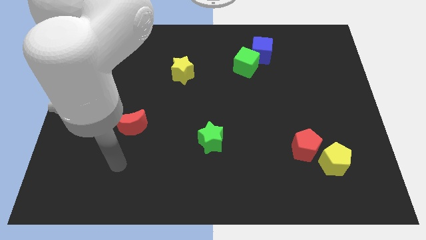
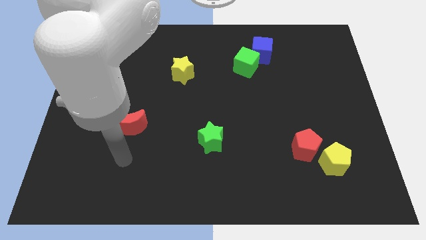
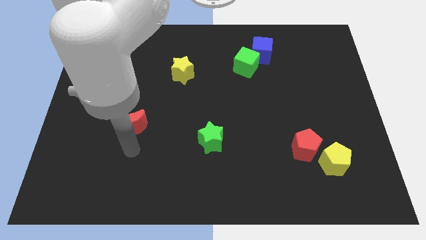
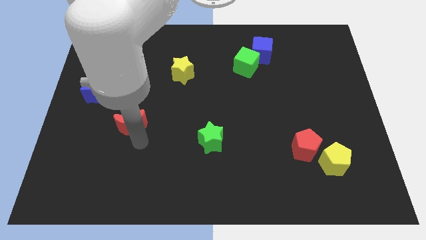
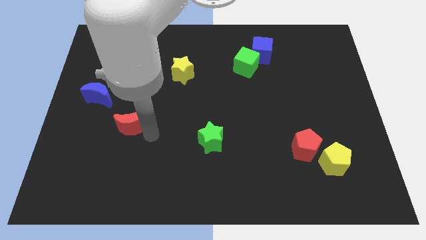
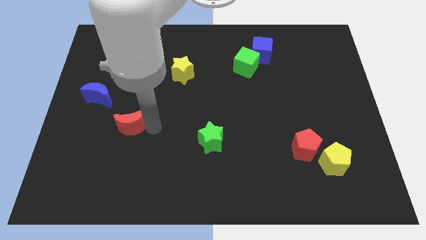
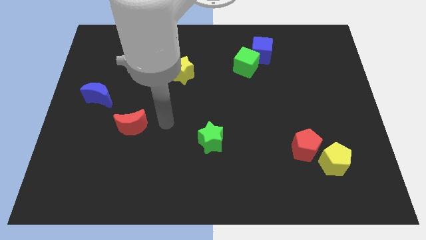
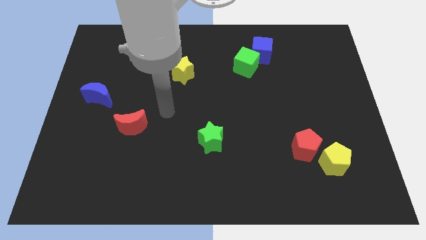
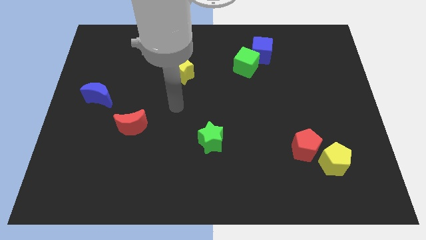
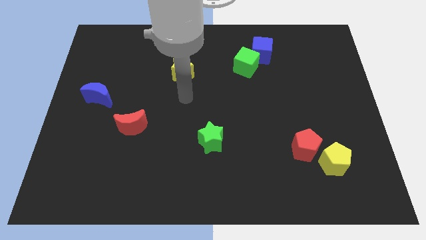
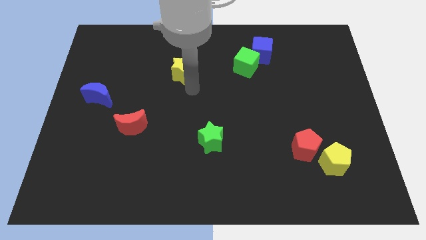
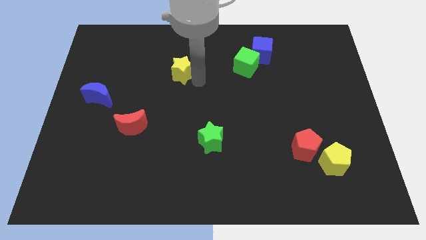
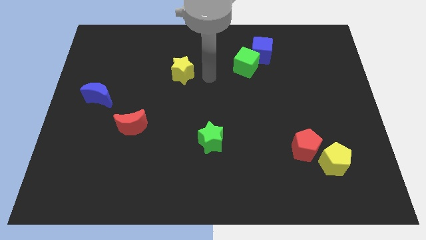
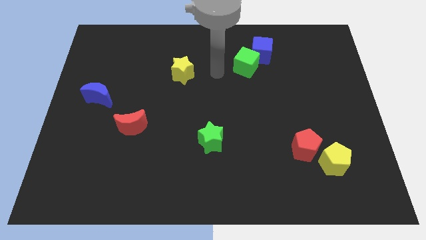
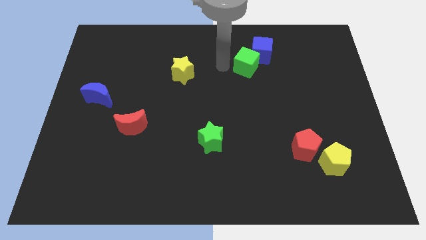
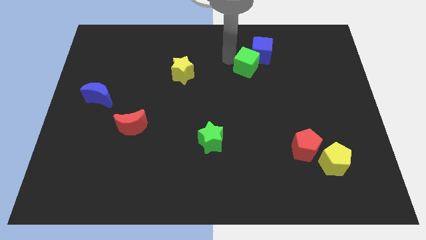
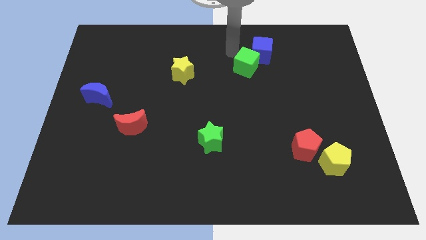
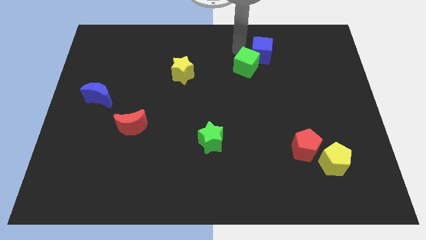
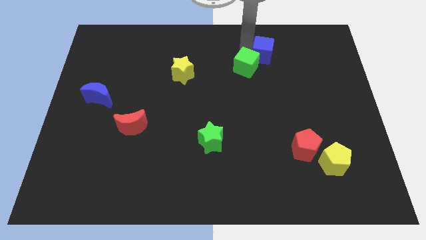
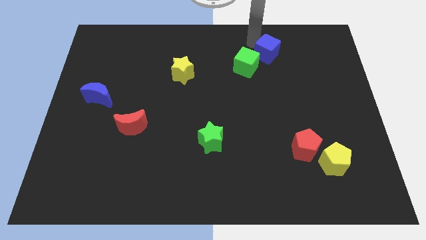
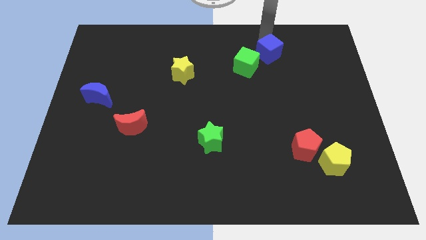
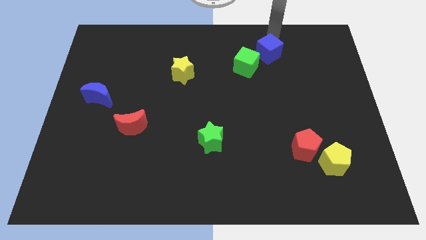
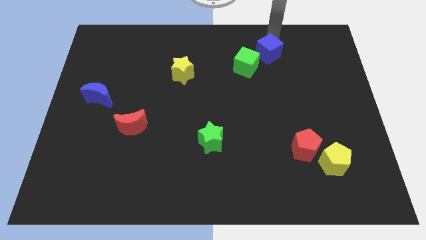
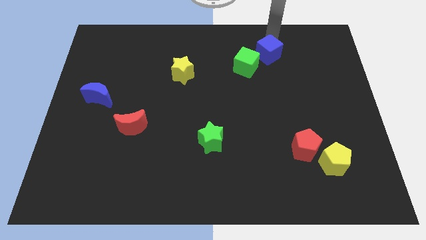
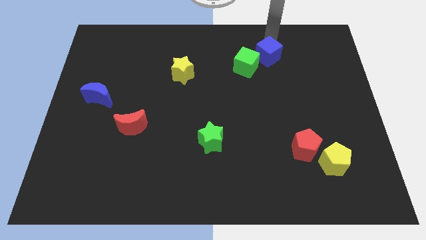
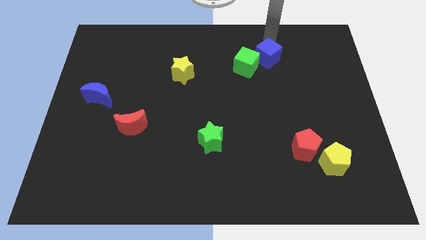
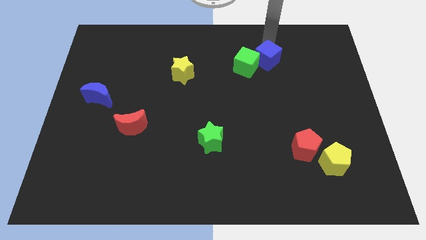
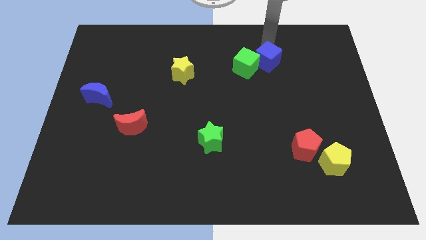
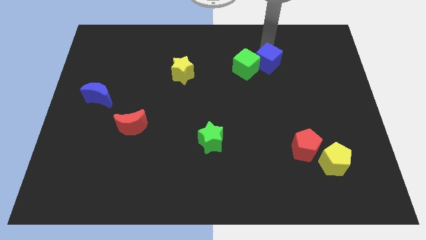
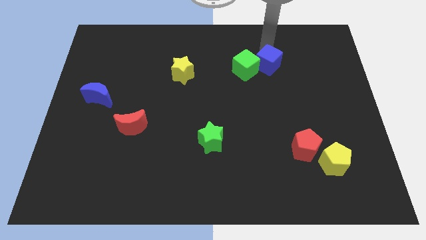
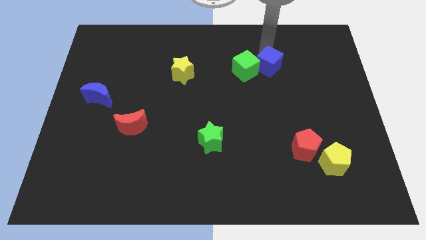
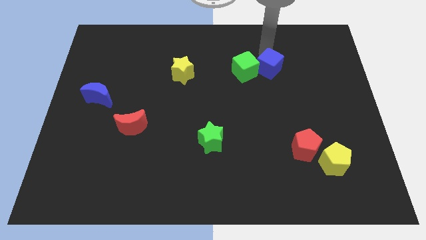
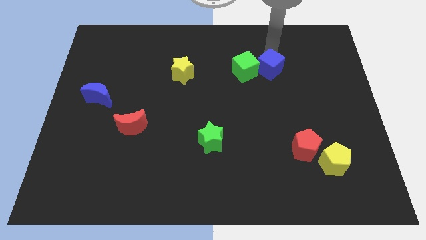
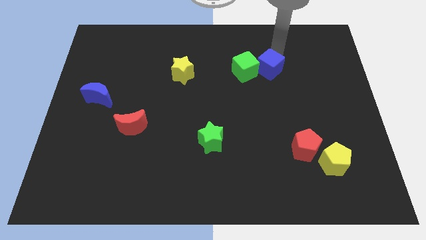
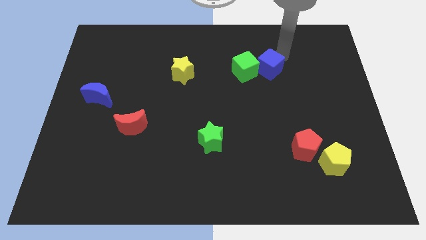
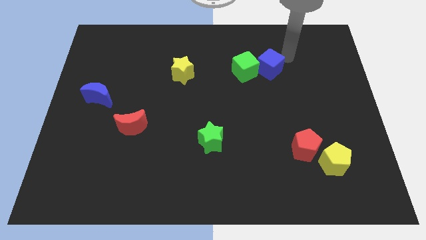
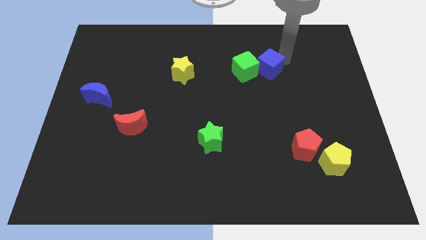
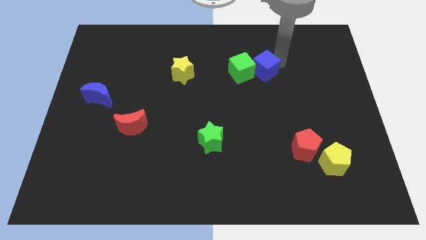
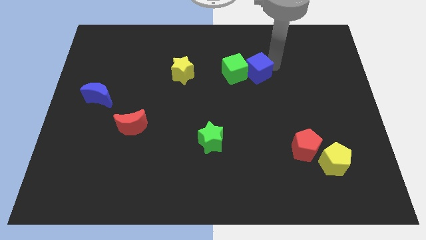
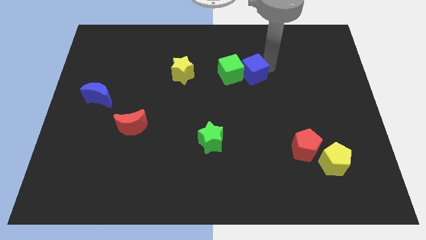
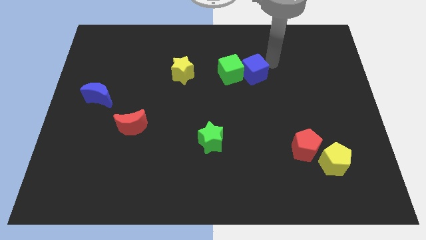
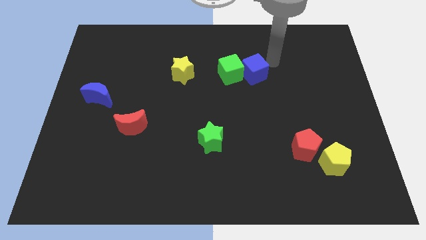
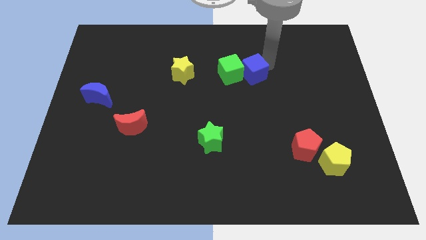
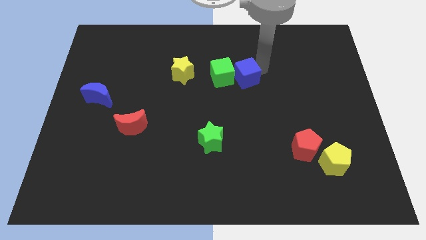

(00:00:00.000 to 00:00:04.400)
slide the blue cube down and to the left diagonally a little

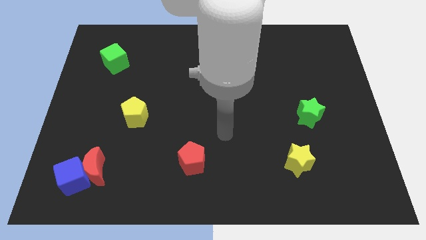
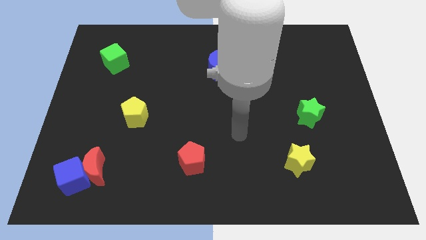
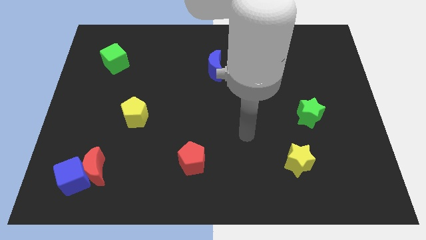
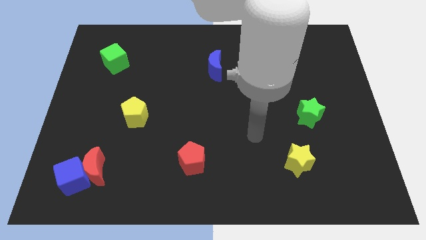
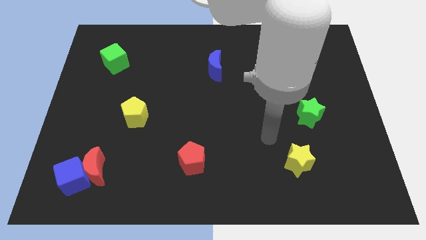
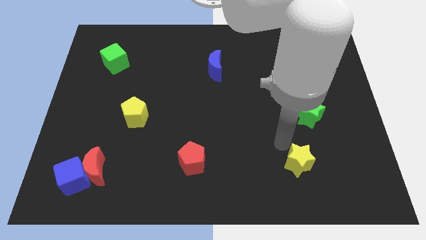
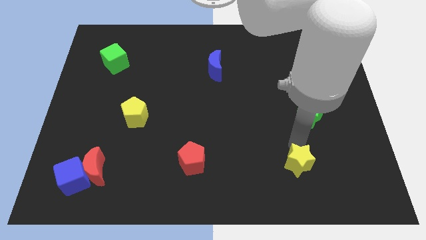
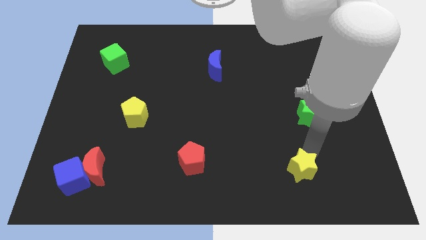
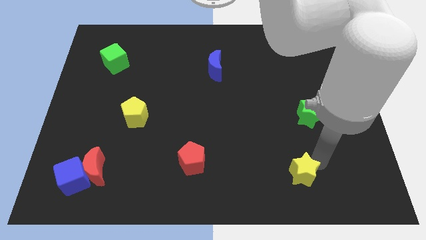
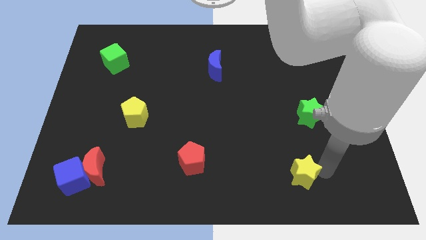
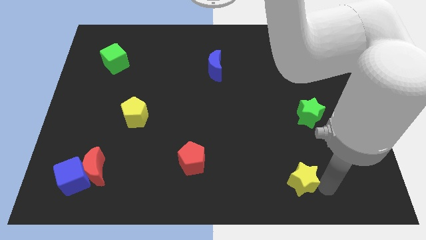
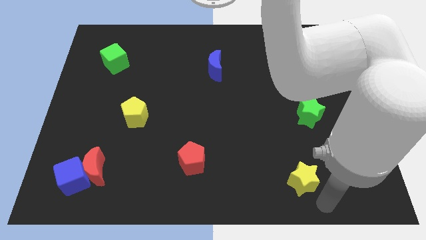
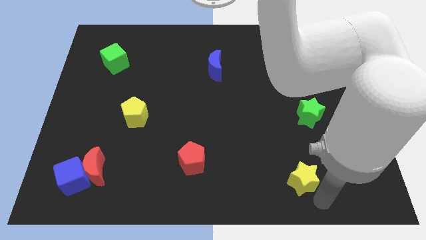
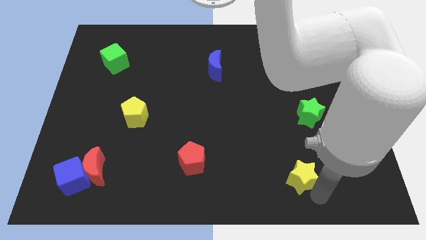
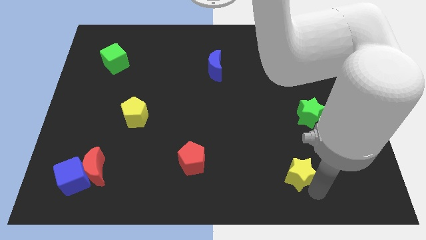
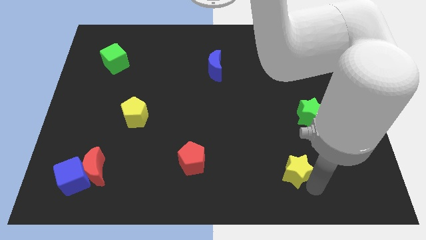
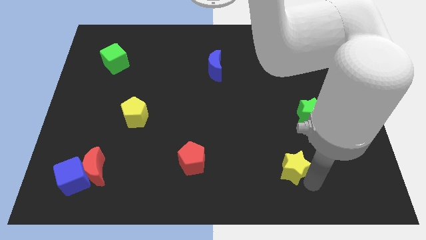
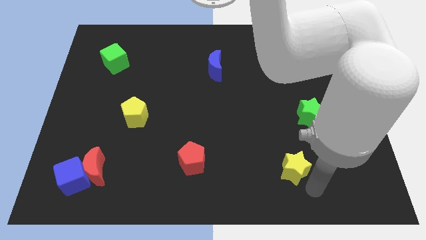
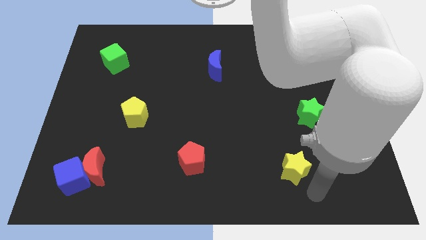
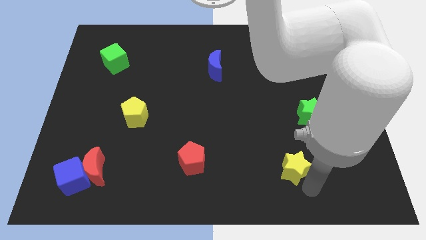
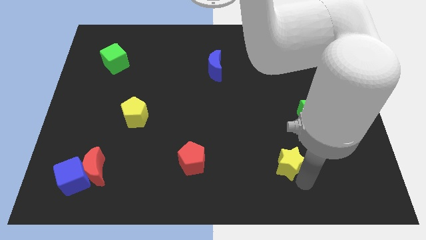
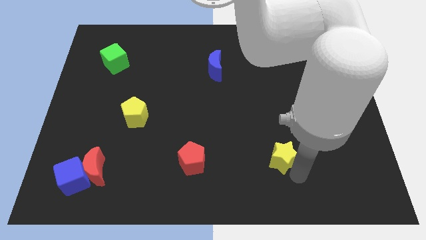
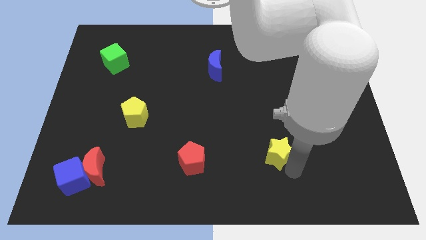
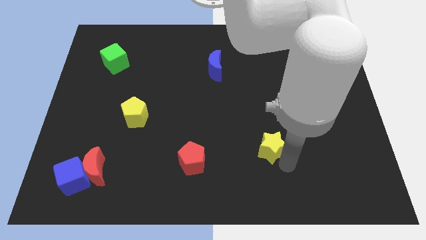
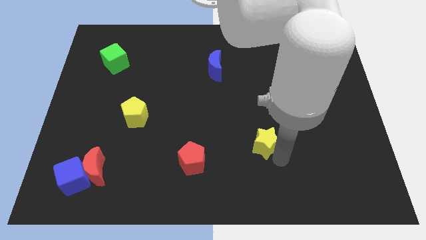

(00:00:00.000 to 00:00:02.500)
move the yellow star up and to the left a bit

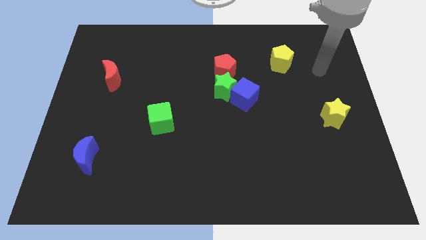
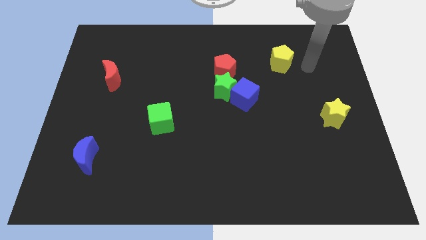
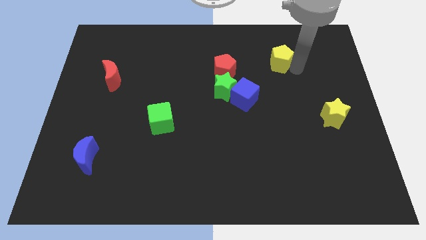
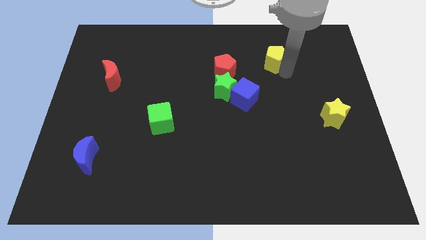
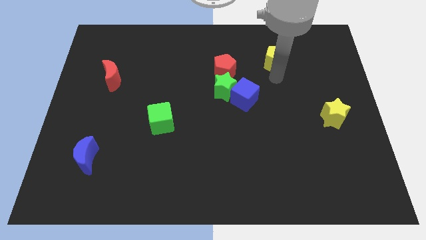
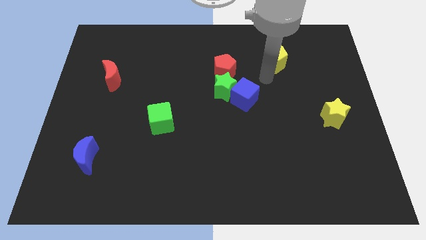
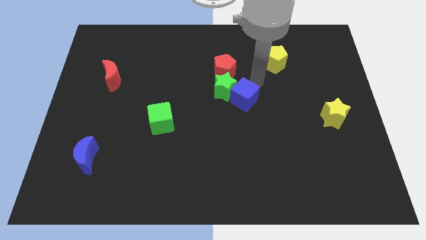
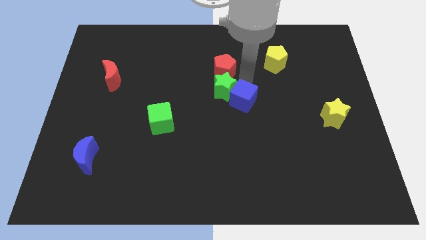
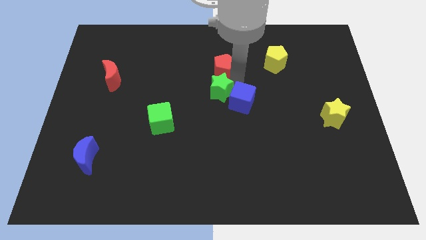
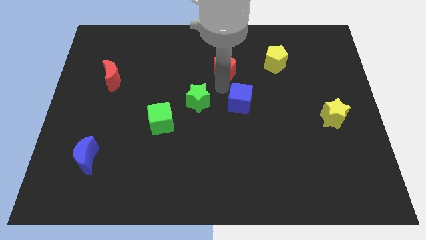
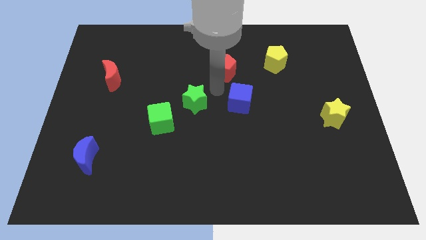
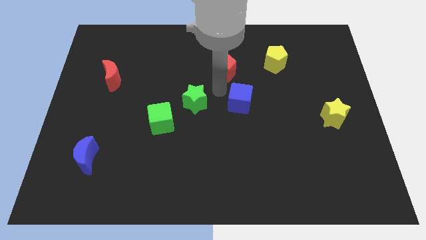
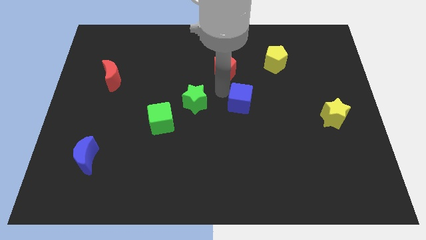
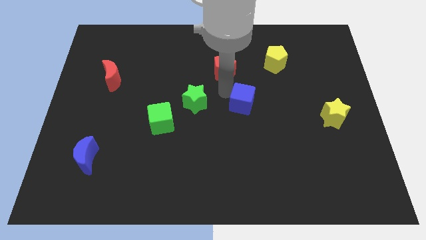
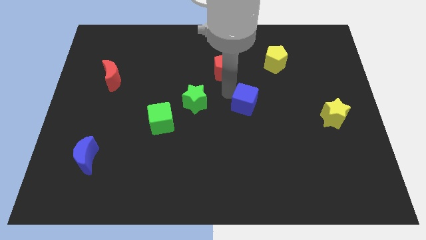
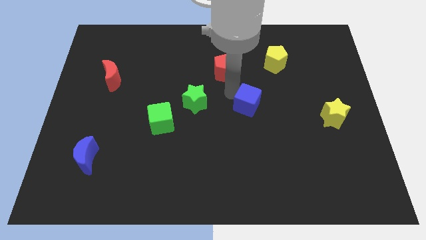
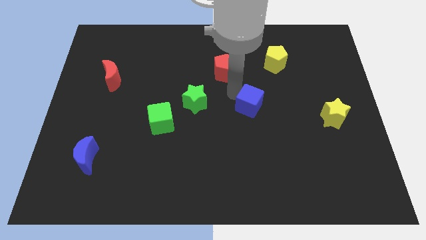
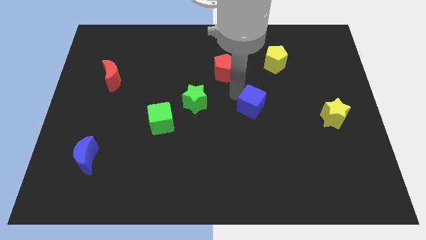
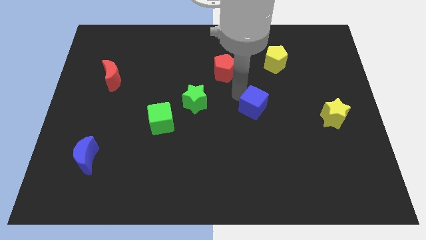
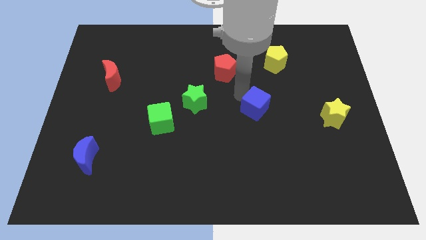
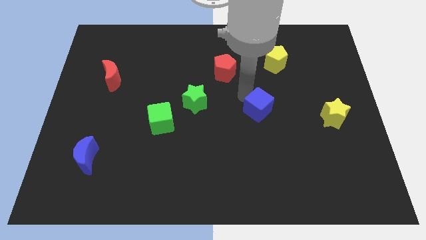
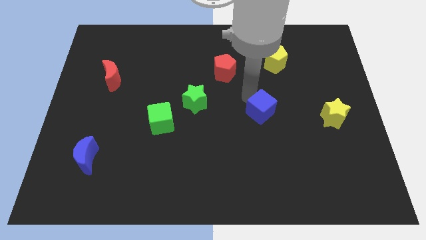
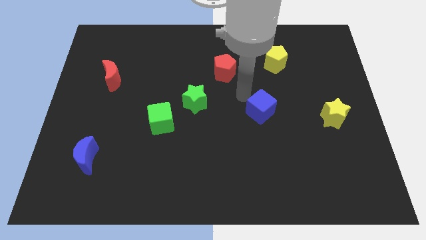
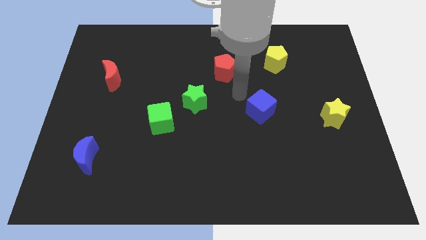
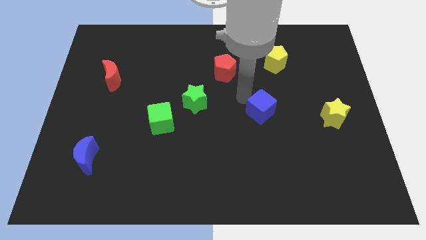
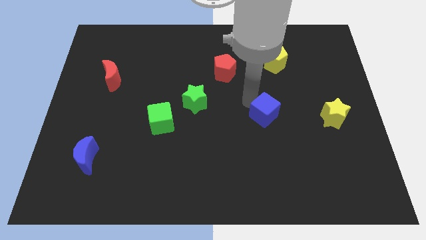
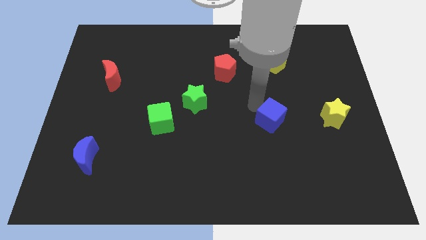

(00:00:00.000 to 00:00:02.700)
slightly slide the blue cube downwards and then to the right
